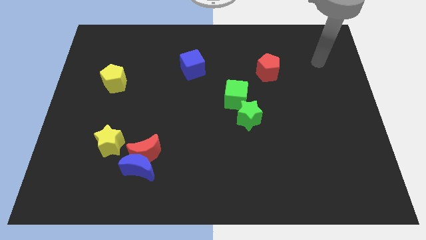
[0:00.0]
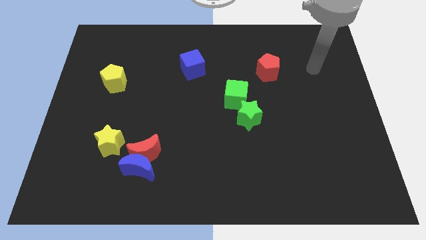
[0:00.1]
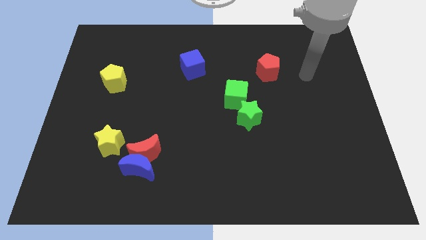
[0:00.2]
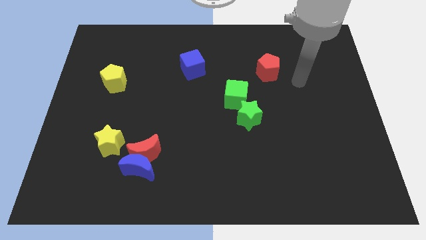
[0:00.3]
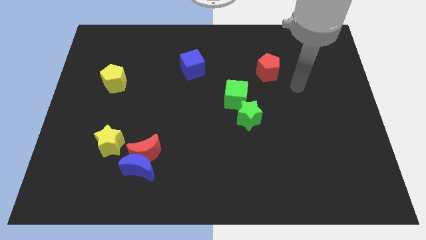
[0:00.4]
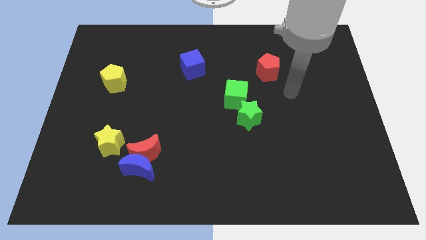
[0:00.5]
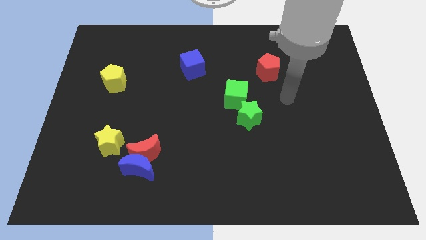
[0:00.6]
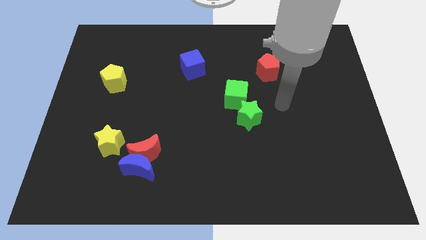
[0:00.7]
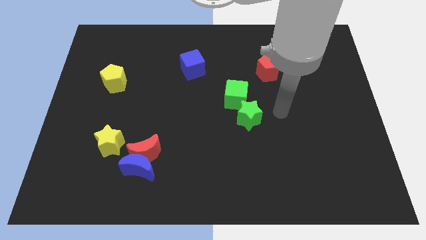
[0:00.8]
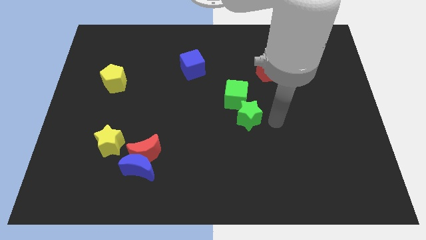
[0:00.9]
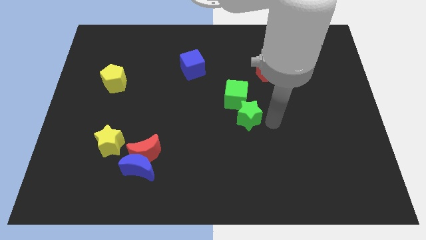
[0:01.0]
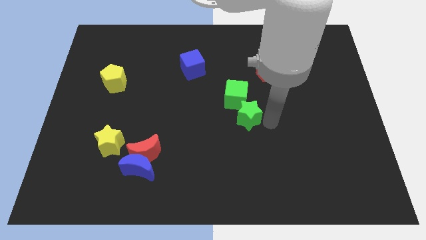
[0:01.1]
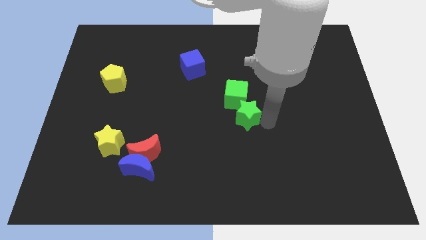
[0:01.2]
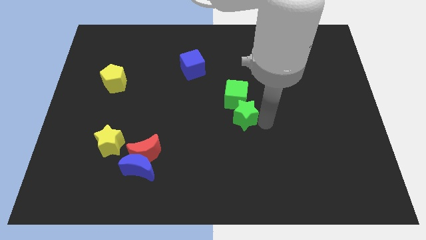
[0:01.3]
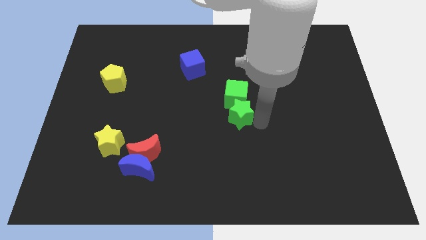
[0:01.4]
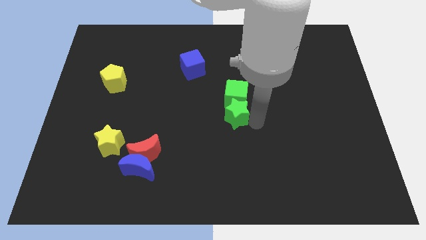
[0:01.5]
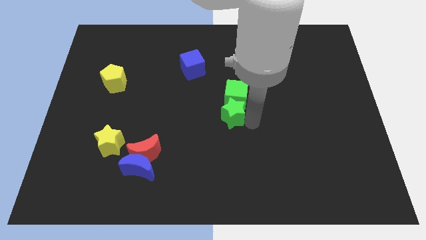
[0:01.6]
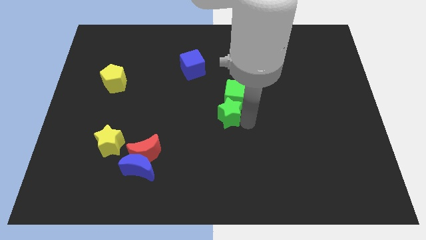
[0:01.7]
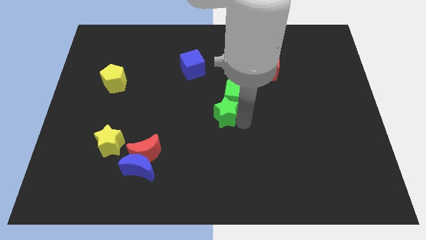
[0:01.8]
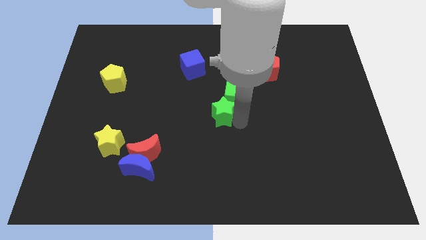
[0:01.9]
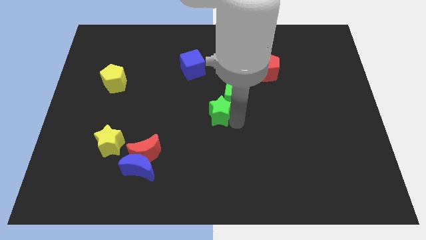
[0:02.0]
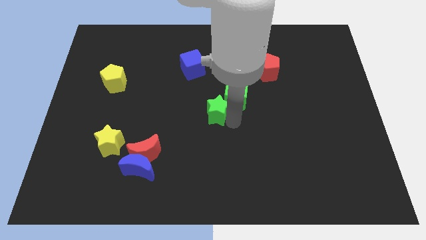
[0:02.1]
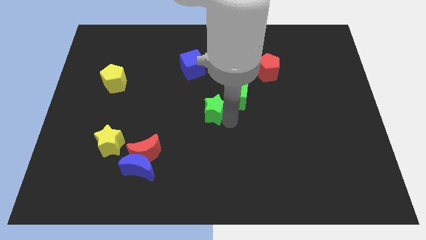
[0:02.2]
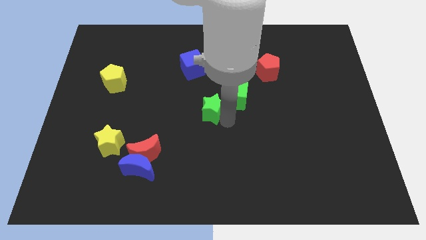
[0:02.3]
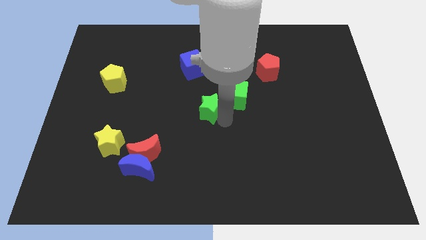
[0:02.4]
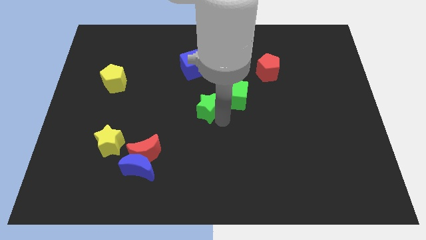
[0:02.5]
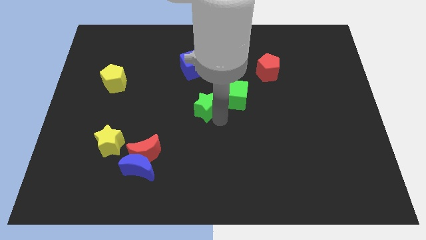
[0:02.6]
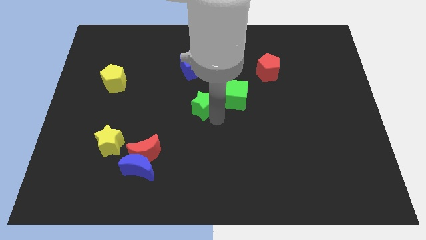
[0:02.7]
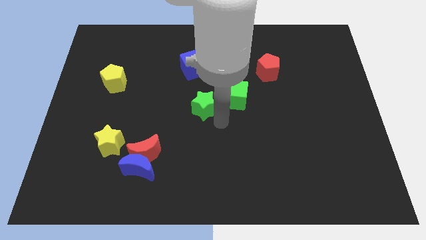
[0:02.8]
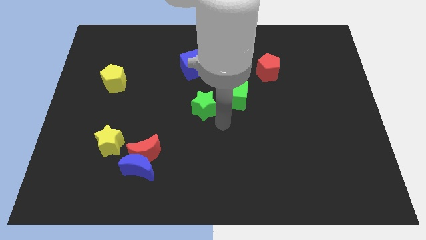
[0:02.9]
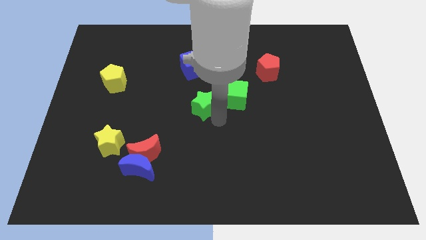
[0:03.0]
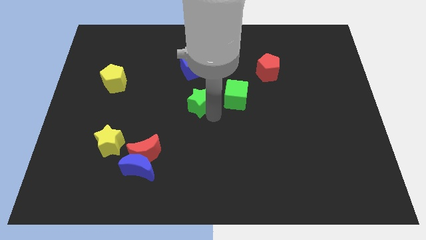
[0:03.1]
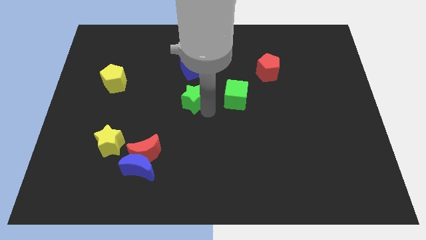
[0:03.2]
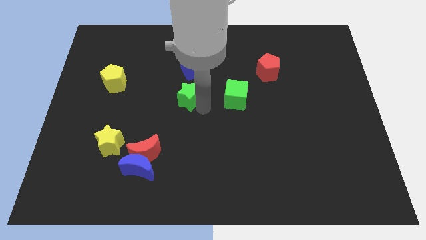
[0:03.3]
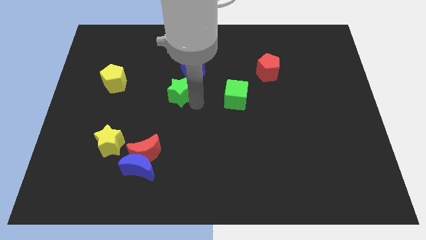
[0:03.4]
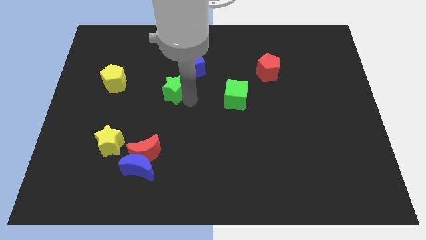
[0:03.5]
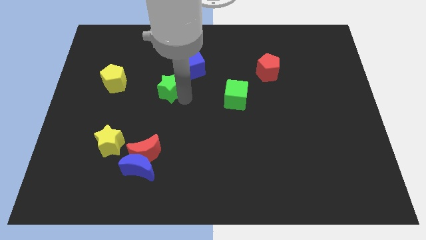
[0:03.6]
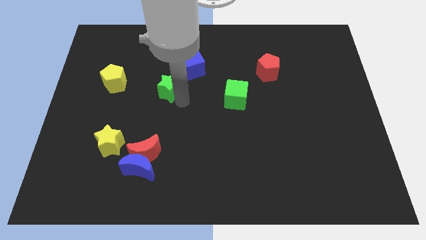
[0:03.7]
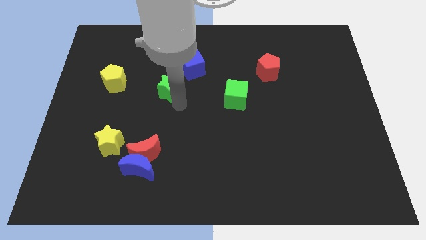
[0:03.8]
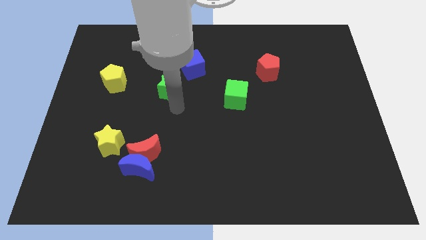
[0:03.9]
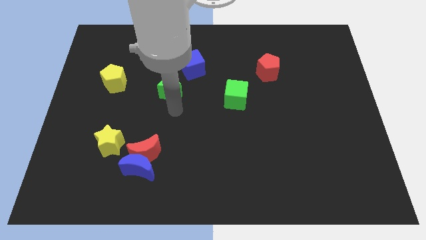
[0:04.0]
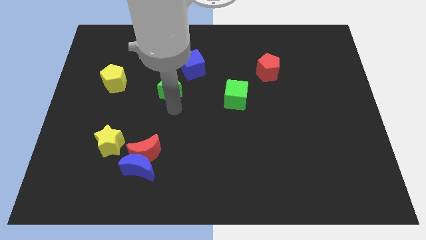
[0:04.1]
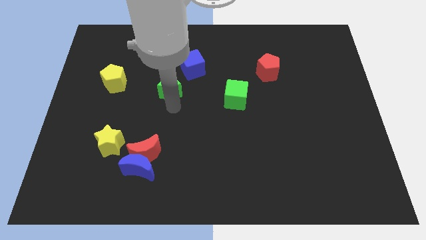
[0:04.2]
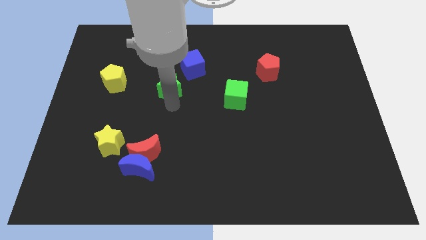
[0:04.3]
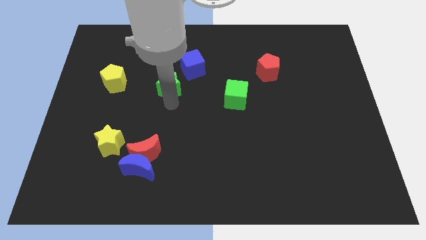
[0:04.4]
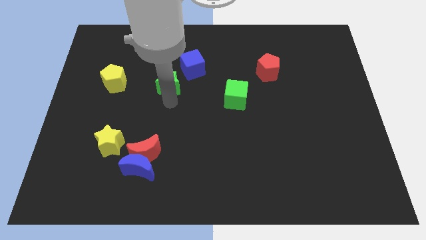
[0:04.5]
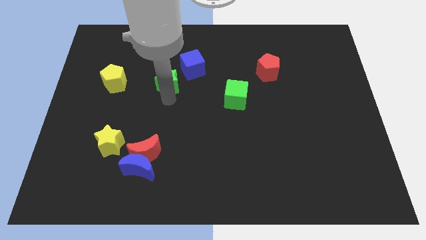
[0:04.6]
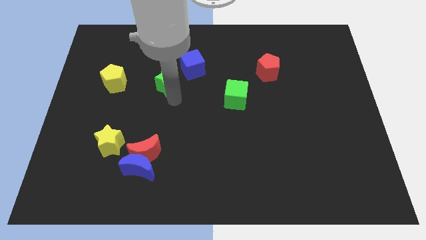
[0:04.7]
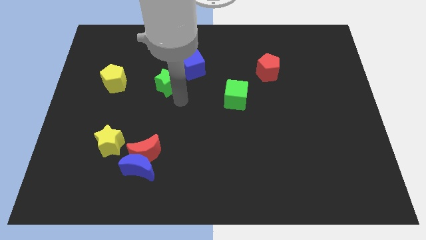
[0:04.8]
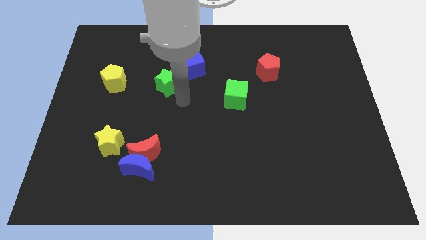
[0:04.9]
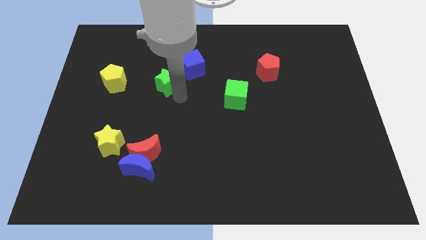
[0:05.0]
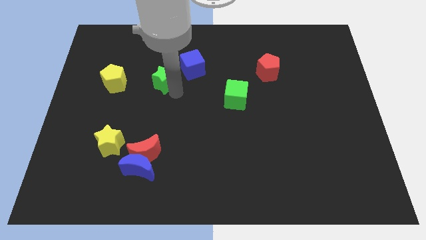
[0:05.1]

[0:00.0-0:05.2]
put the green star to the left side of the blue cube

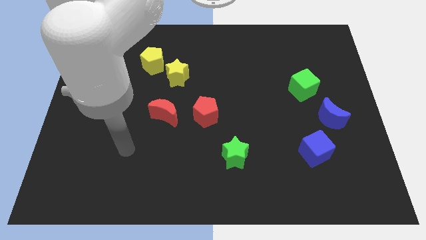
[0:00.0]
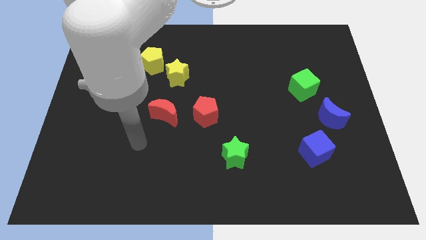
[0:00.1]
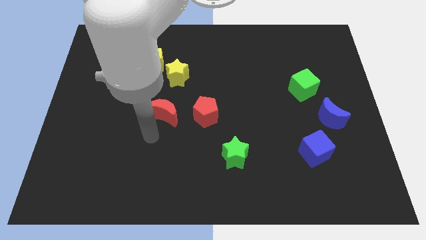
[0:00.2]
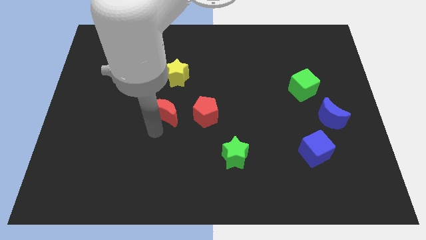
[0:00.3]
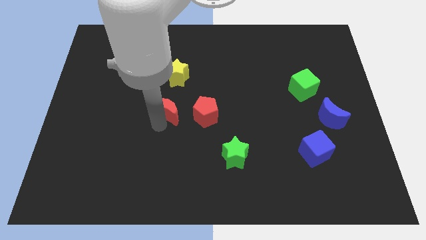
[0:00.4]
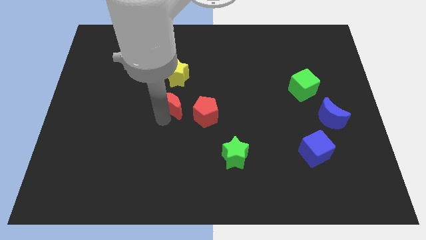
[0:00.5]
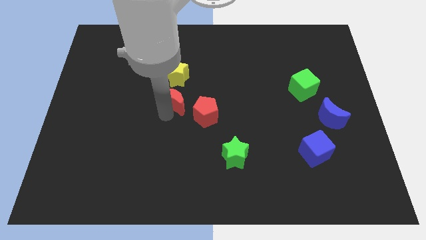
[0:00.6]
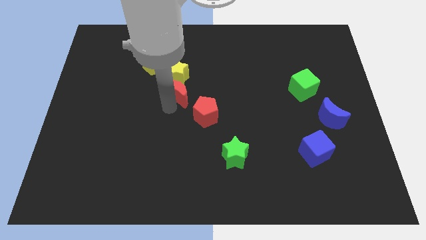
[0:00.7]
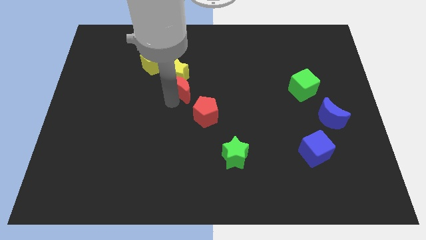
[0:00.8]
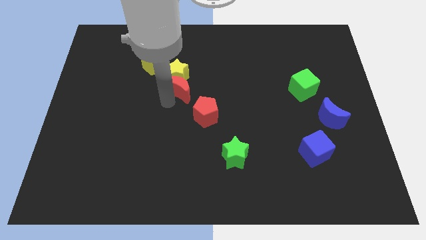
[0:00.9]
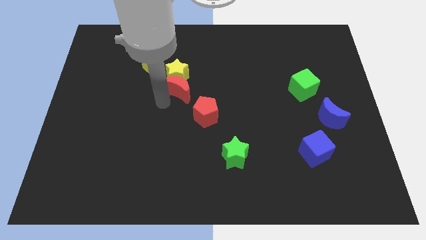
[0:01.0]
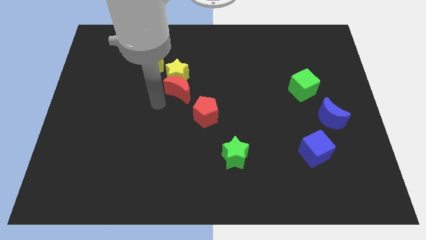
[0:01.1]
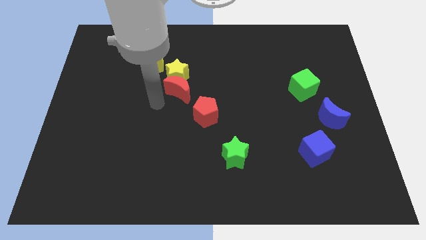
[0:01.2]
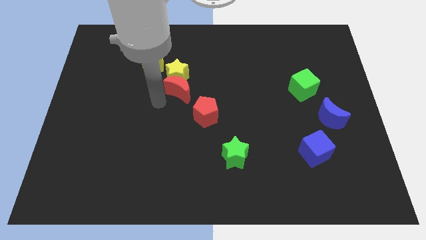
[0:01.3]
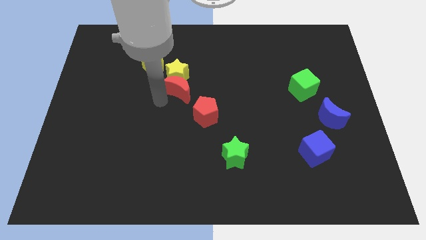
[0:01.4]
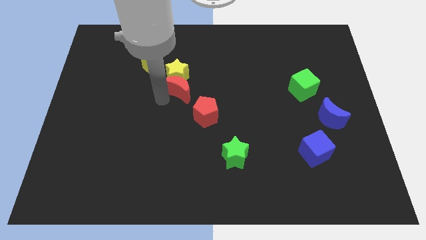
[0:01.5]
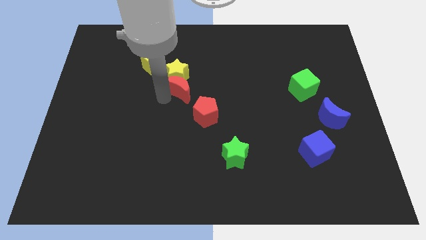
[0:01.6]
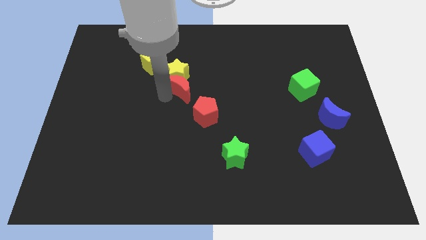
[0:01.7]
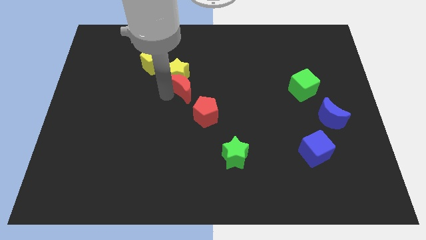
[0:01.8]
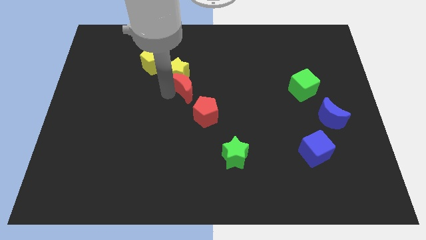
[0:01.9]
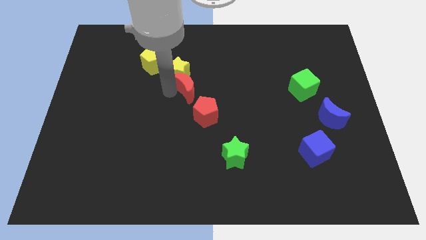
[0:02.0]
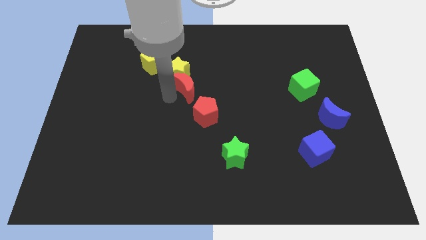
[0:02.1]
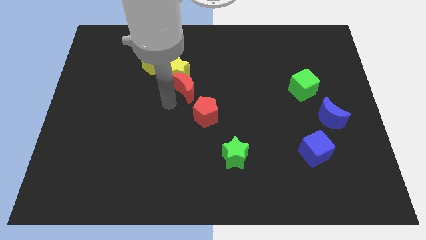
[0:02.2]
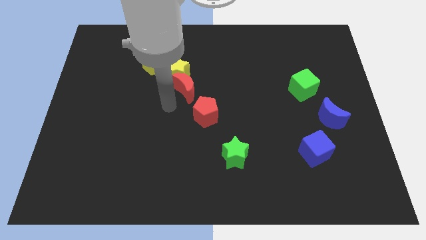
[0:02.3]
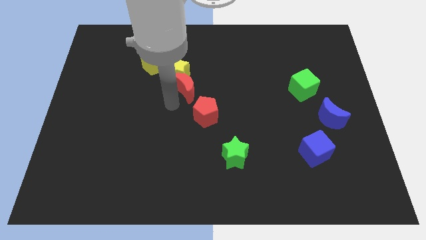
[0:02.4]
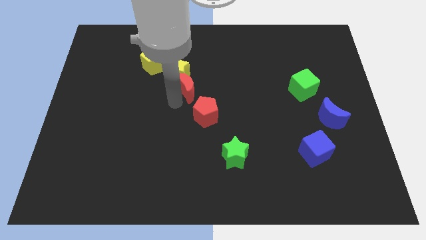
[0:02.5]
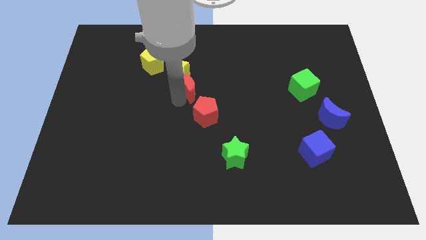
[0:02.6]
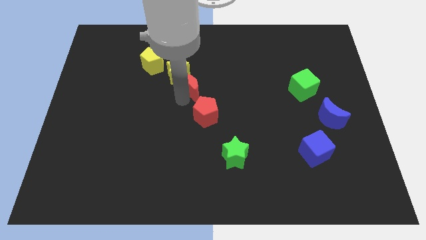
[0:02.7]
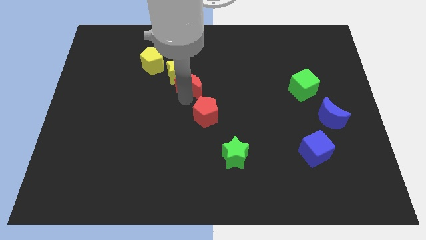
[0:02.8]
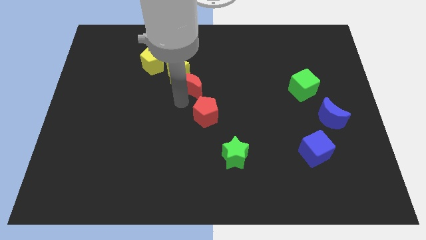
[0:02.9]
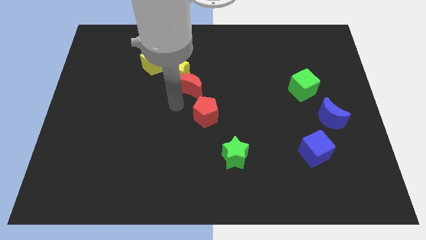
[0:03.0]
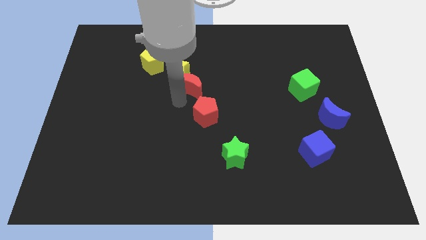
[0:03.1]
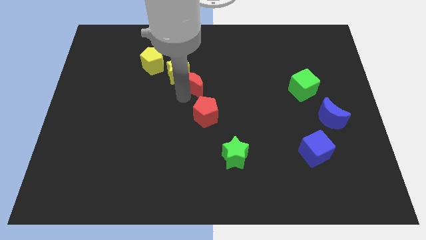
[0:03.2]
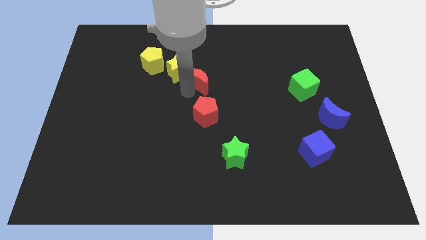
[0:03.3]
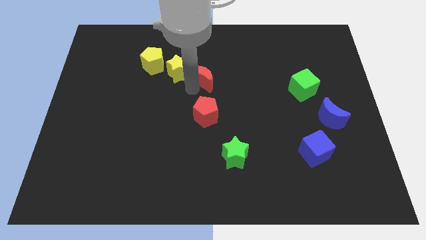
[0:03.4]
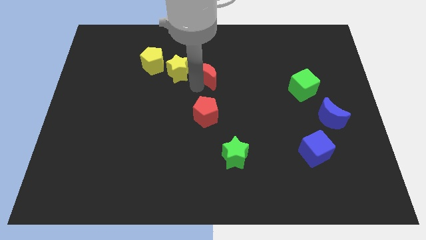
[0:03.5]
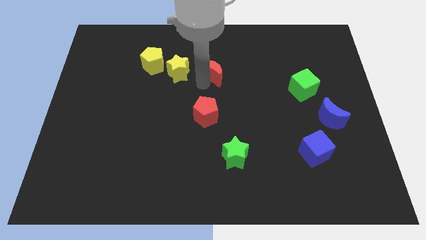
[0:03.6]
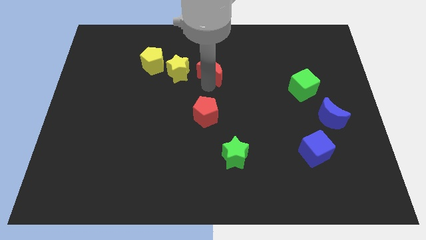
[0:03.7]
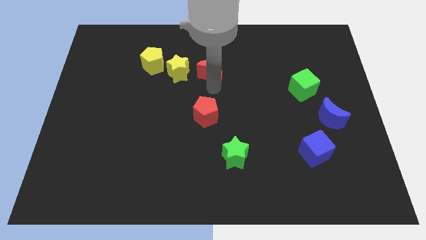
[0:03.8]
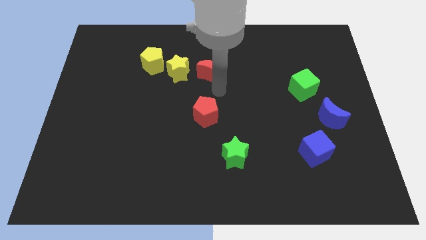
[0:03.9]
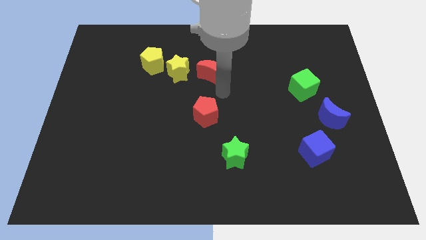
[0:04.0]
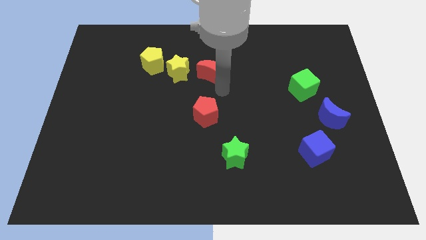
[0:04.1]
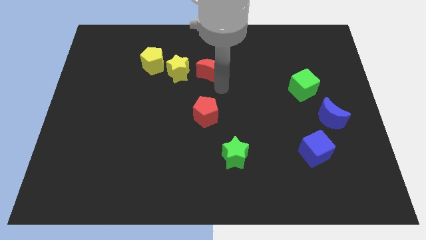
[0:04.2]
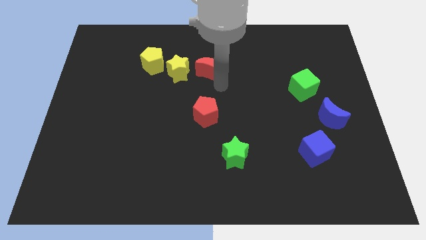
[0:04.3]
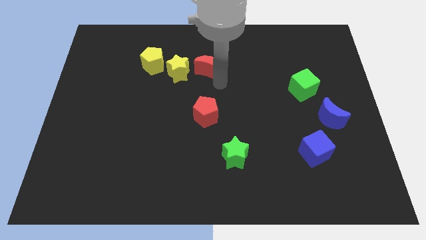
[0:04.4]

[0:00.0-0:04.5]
push the red moon to the top right side of the yellow star
